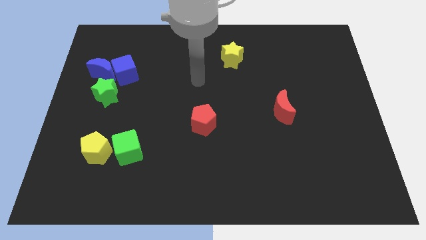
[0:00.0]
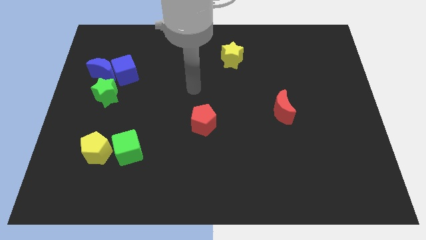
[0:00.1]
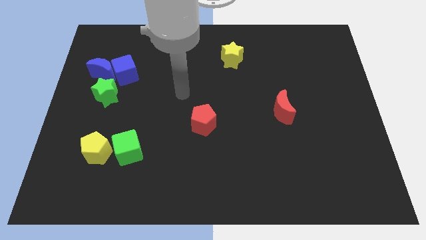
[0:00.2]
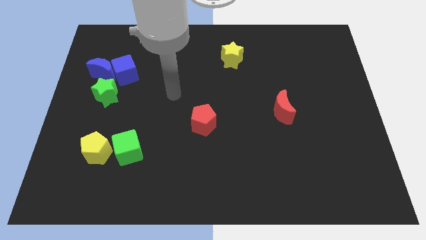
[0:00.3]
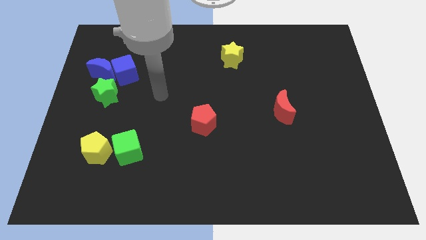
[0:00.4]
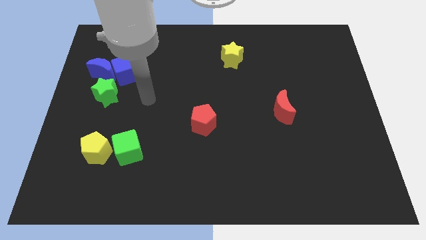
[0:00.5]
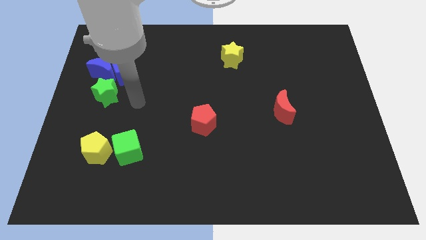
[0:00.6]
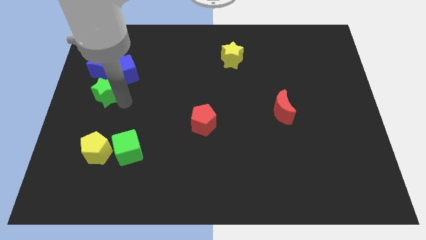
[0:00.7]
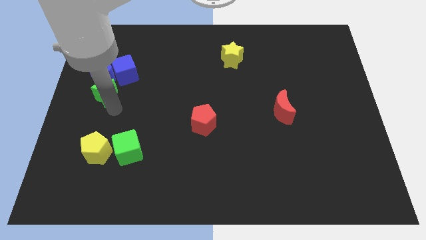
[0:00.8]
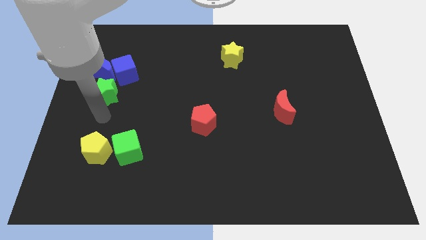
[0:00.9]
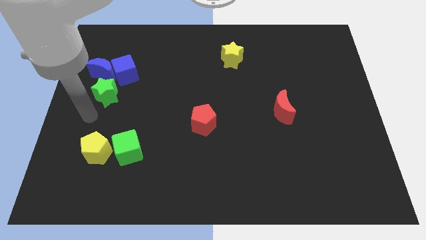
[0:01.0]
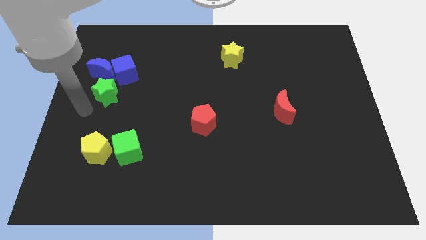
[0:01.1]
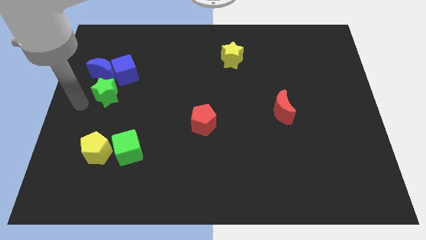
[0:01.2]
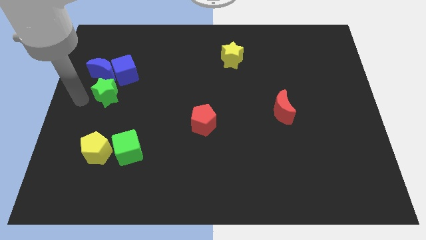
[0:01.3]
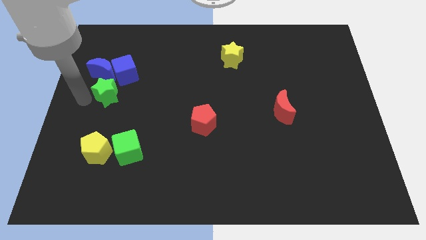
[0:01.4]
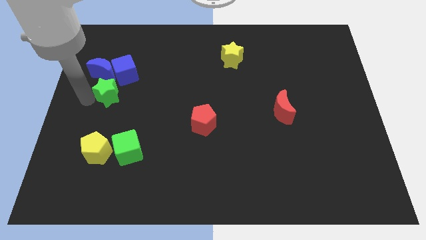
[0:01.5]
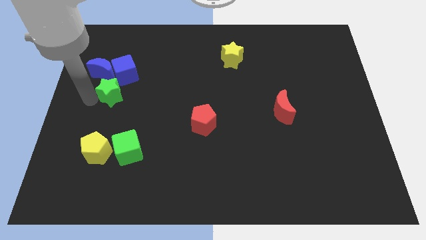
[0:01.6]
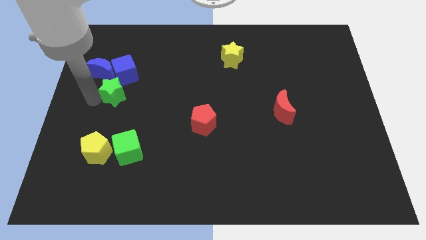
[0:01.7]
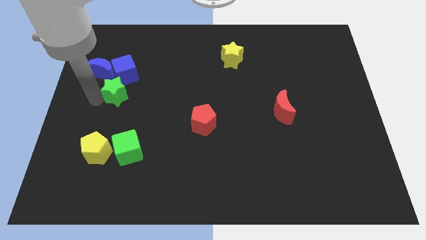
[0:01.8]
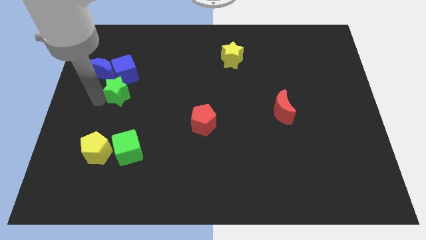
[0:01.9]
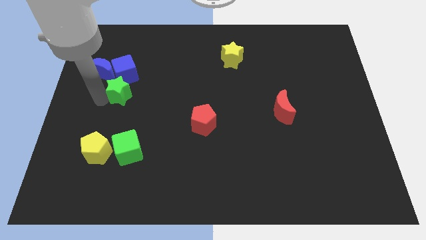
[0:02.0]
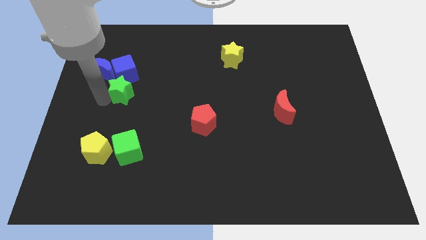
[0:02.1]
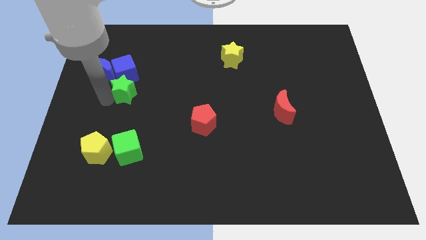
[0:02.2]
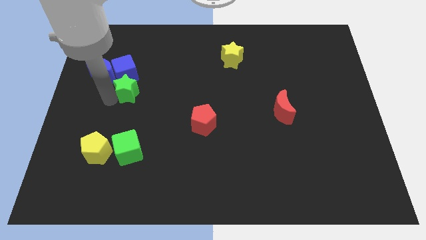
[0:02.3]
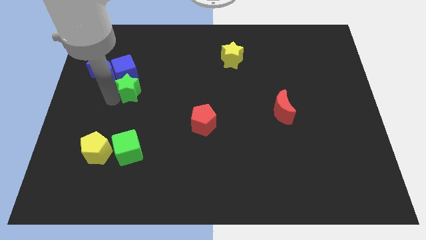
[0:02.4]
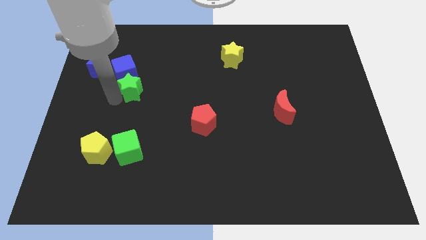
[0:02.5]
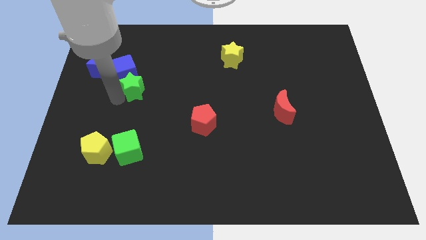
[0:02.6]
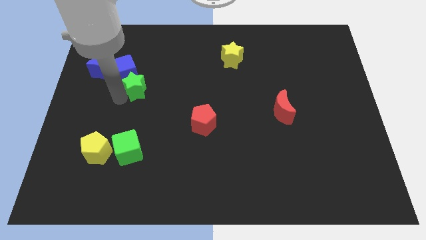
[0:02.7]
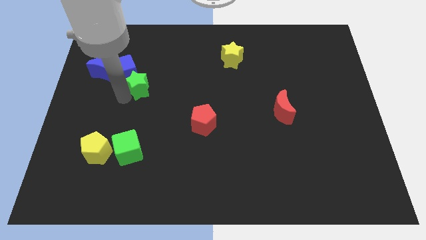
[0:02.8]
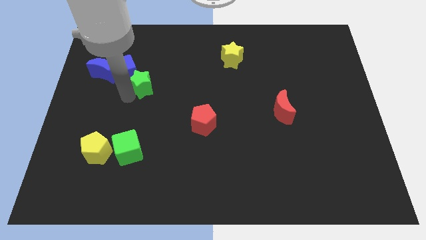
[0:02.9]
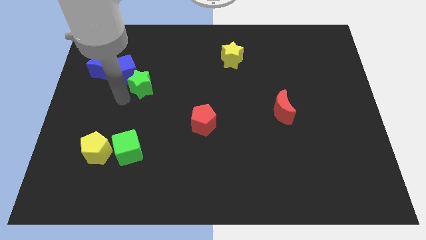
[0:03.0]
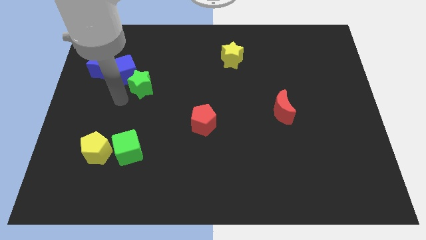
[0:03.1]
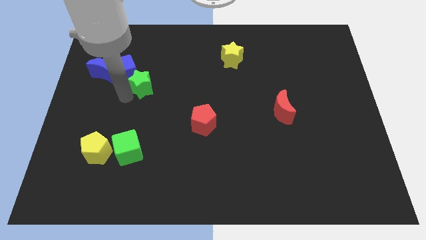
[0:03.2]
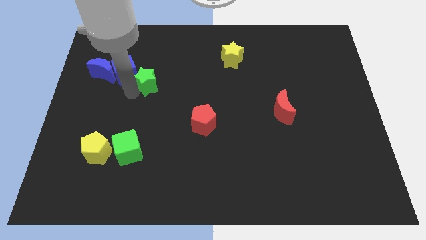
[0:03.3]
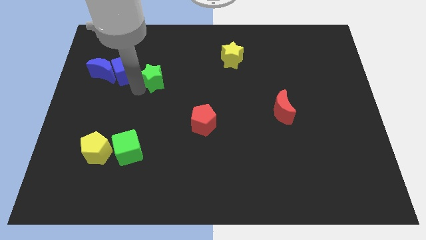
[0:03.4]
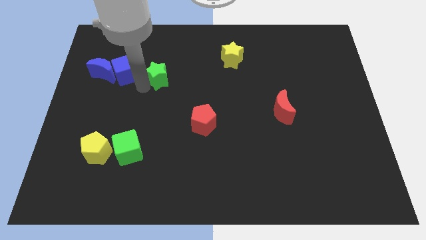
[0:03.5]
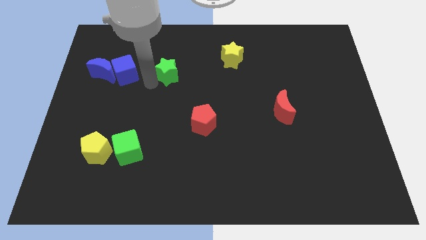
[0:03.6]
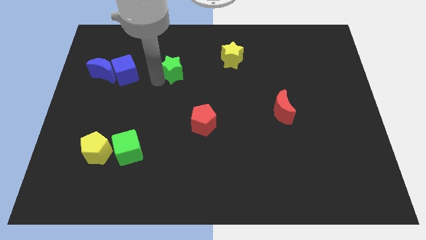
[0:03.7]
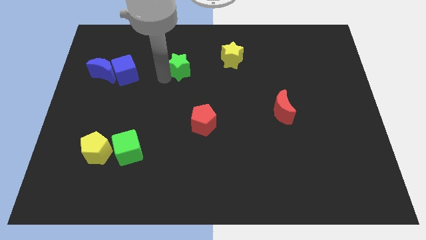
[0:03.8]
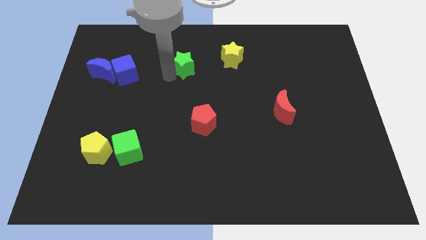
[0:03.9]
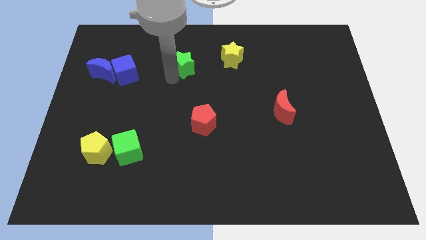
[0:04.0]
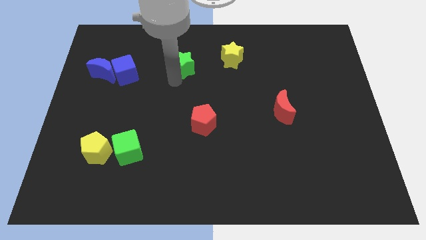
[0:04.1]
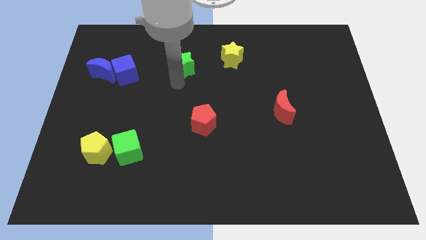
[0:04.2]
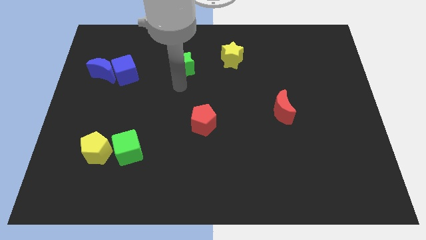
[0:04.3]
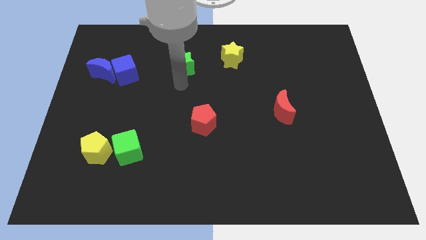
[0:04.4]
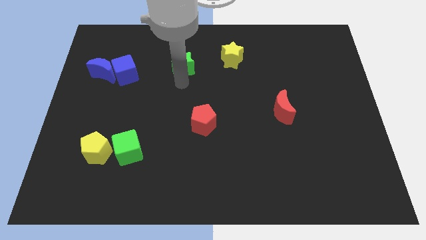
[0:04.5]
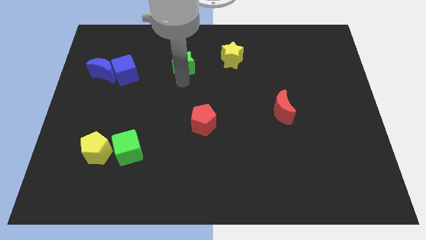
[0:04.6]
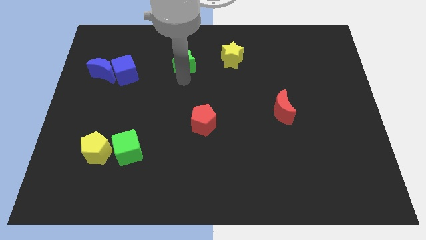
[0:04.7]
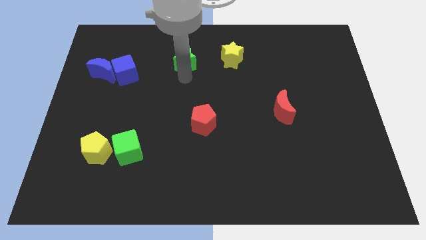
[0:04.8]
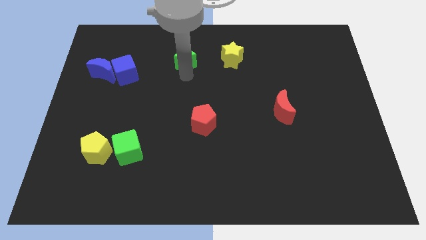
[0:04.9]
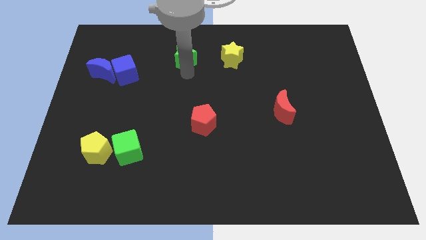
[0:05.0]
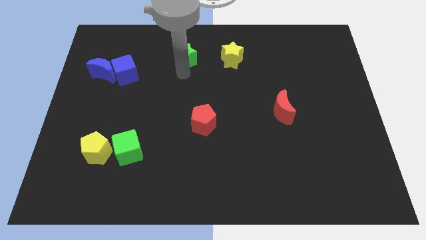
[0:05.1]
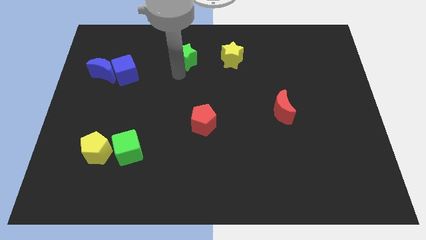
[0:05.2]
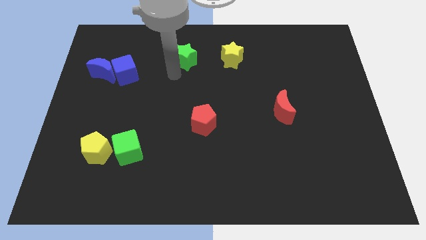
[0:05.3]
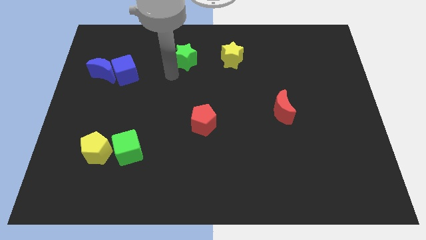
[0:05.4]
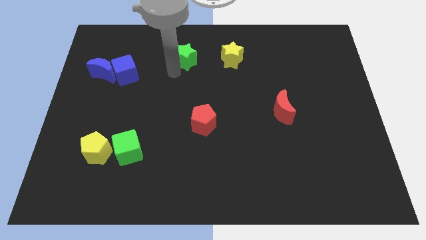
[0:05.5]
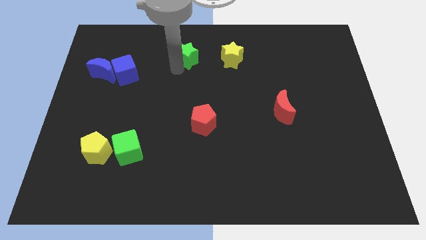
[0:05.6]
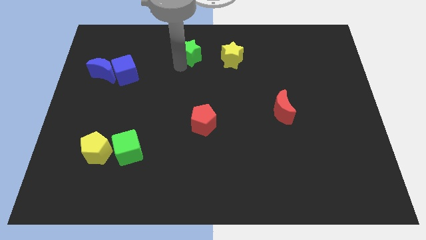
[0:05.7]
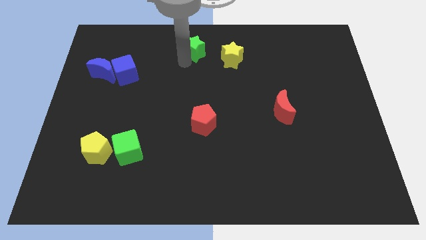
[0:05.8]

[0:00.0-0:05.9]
slide the green star to the top
